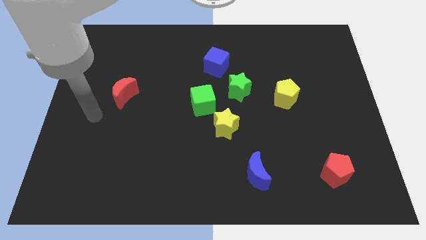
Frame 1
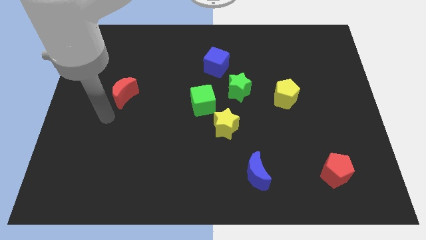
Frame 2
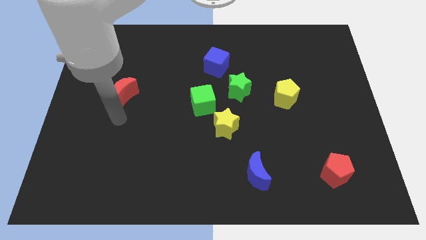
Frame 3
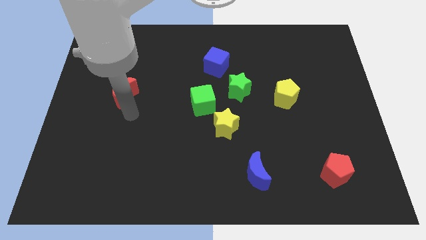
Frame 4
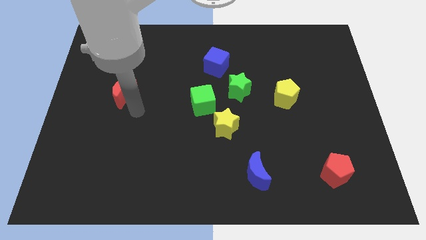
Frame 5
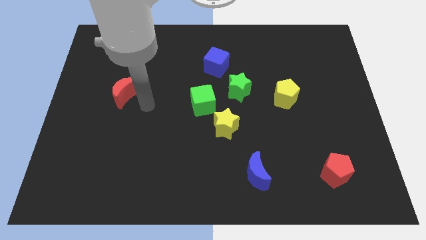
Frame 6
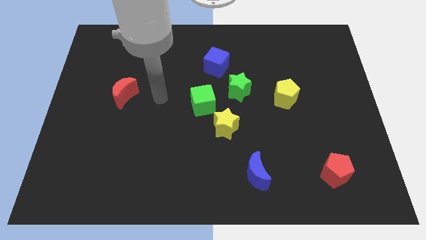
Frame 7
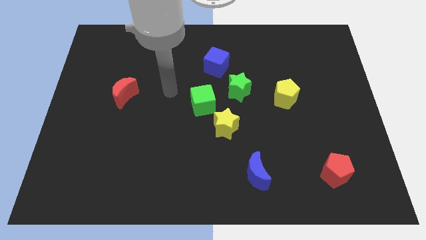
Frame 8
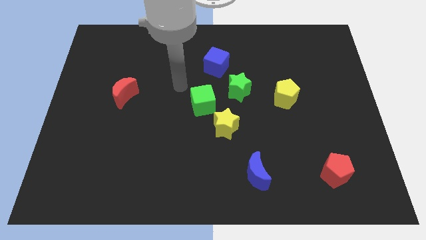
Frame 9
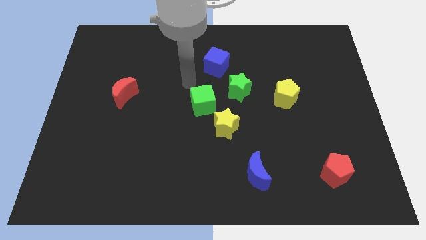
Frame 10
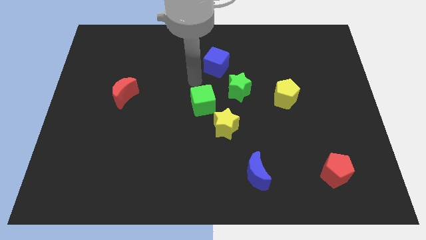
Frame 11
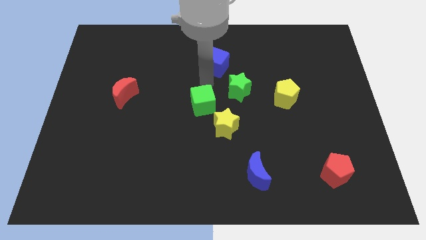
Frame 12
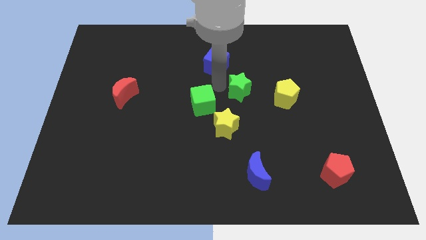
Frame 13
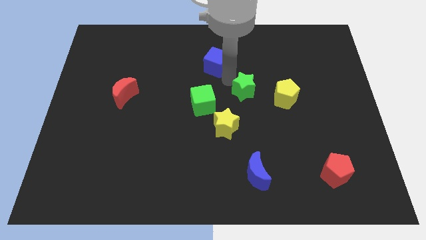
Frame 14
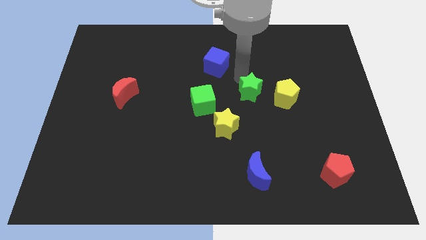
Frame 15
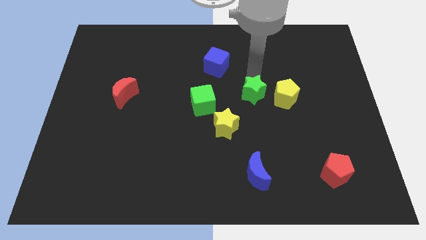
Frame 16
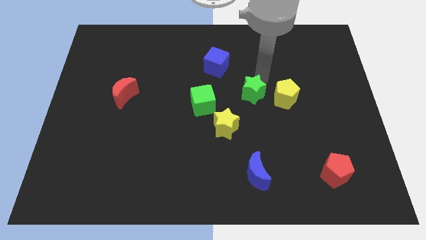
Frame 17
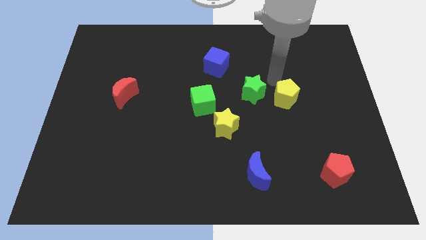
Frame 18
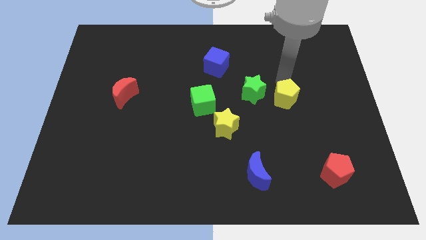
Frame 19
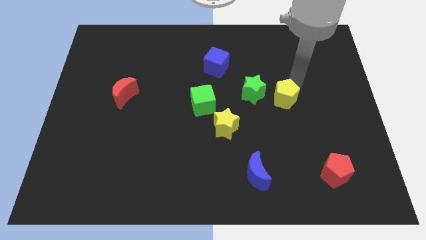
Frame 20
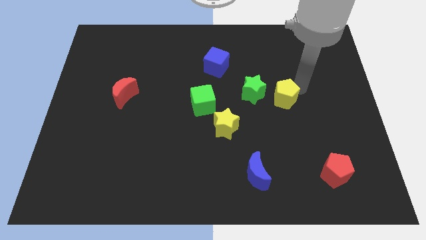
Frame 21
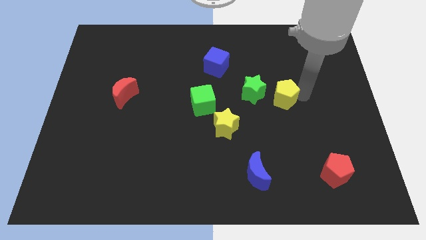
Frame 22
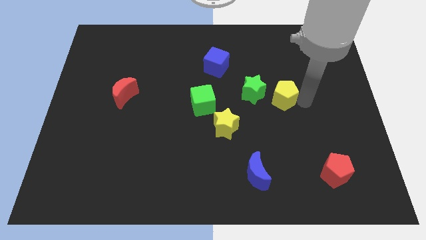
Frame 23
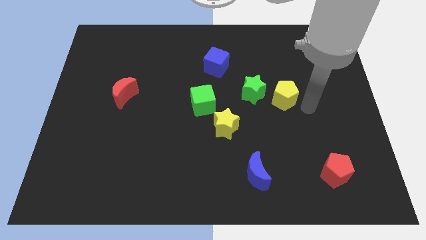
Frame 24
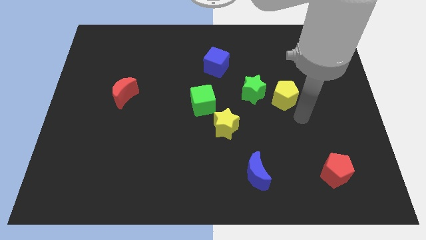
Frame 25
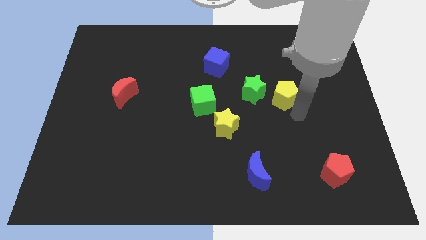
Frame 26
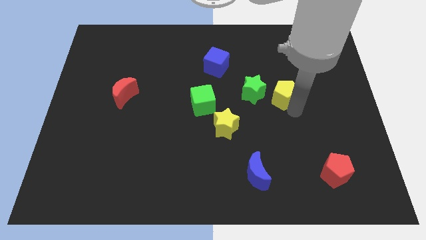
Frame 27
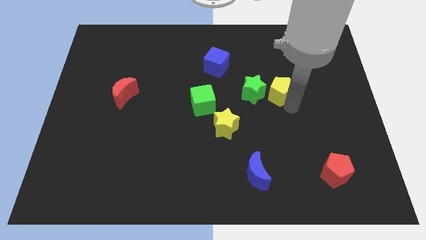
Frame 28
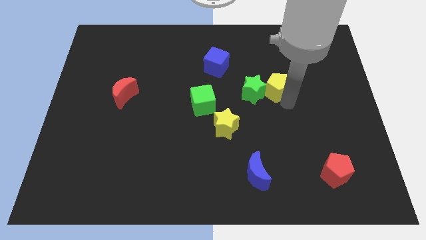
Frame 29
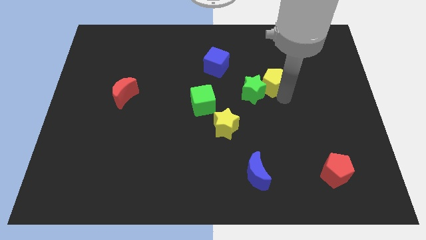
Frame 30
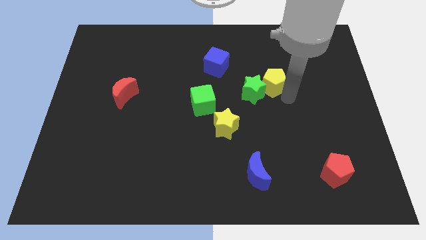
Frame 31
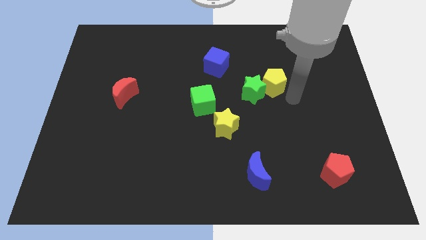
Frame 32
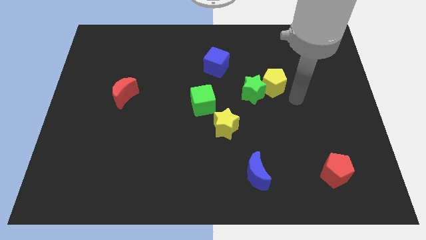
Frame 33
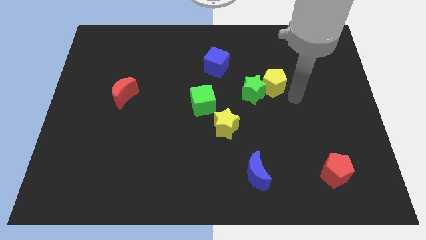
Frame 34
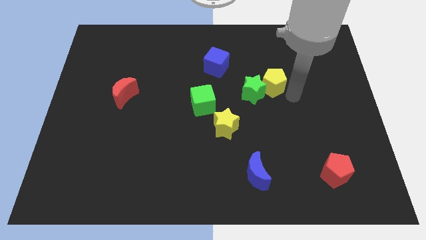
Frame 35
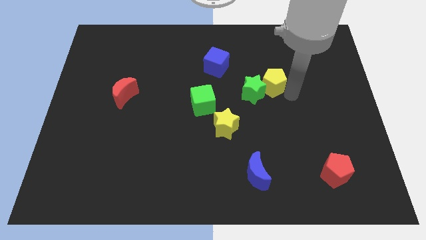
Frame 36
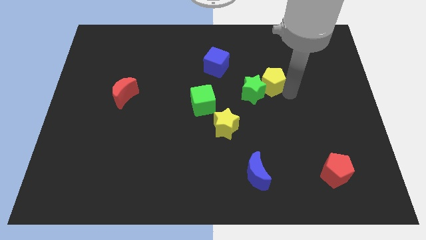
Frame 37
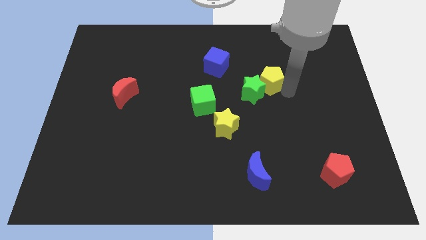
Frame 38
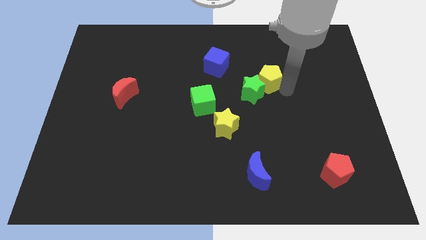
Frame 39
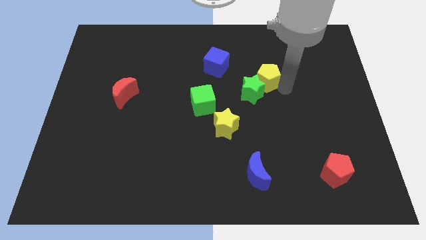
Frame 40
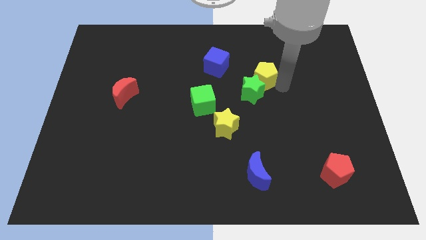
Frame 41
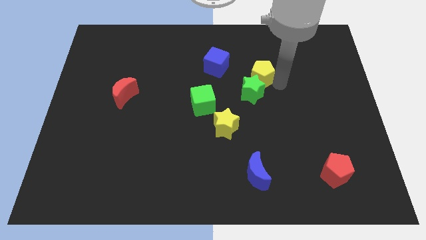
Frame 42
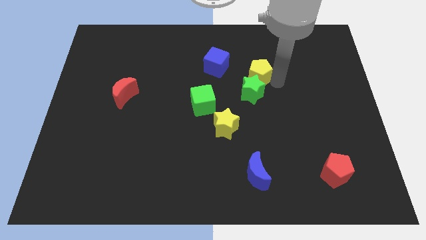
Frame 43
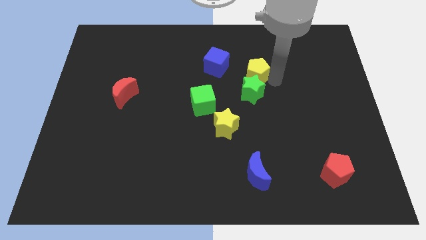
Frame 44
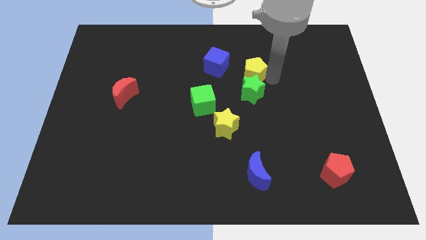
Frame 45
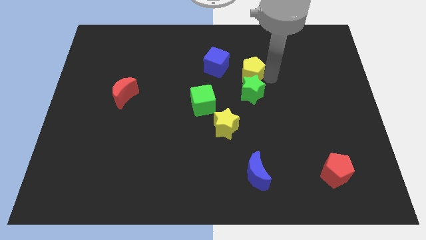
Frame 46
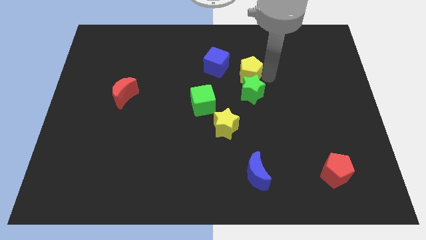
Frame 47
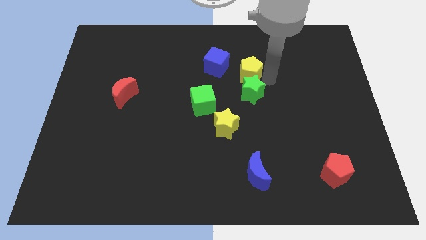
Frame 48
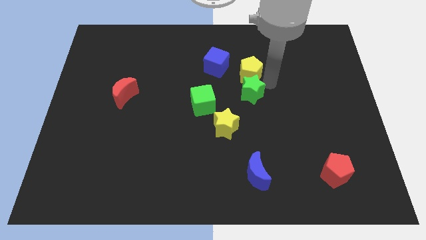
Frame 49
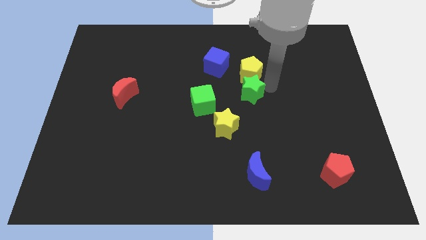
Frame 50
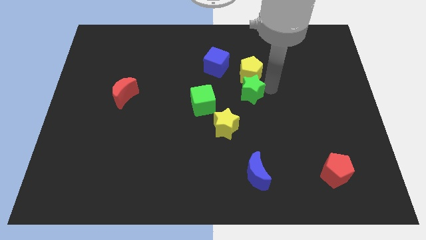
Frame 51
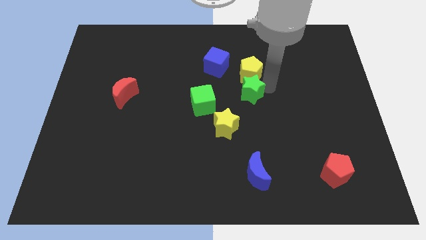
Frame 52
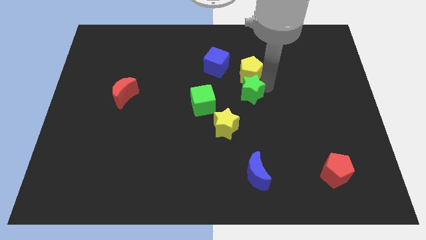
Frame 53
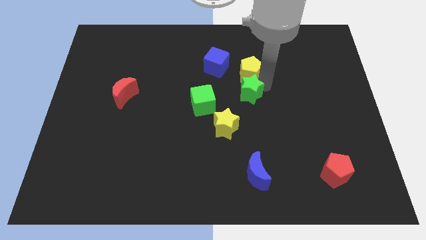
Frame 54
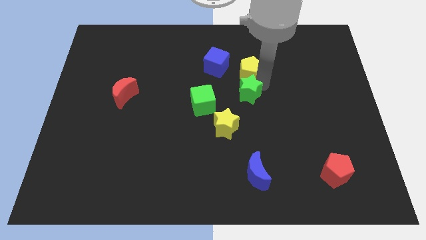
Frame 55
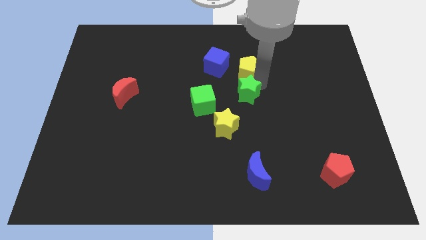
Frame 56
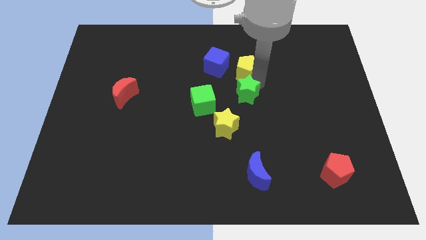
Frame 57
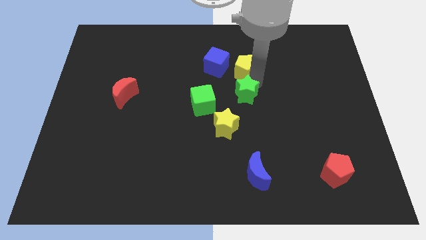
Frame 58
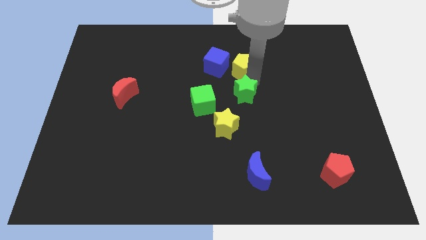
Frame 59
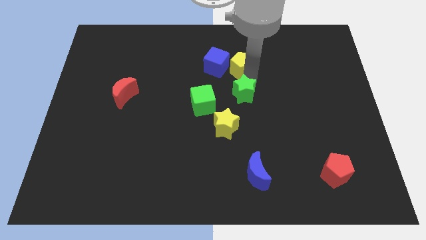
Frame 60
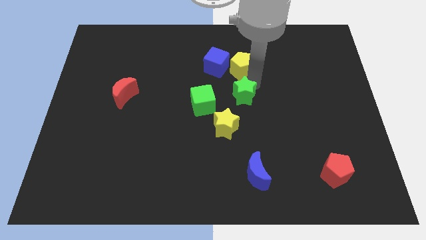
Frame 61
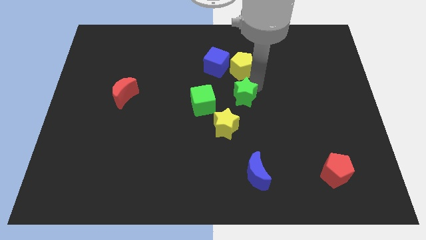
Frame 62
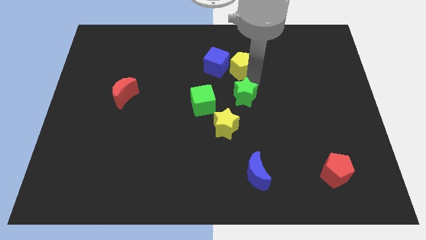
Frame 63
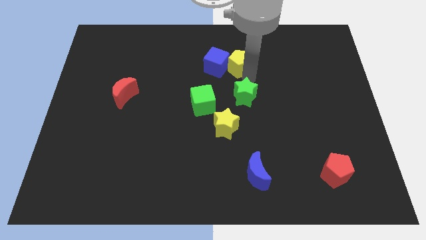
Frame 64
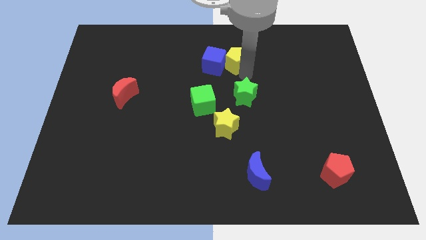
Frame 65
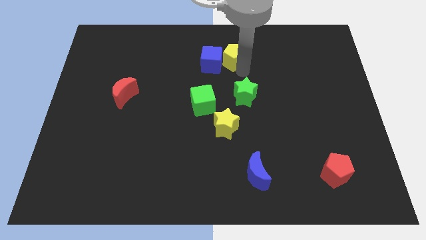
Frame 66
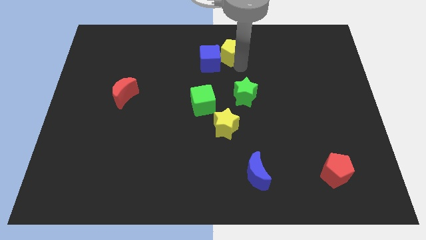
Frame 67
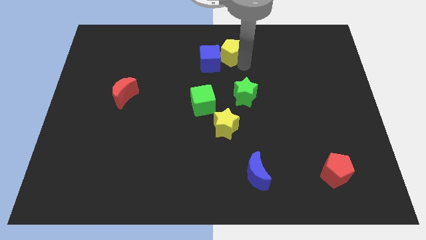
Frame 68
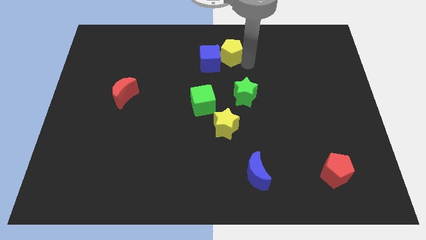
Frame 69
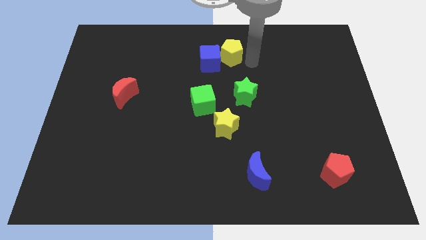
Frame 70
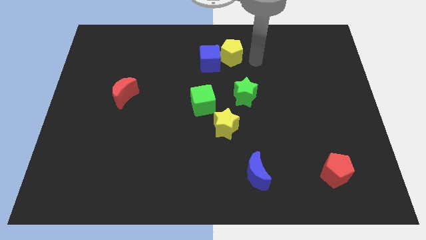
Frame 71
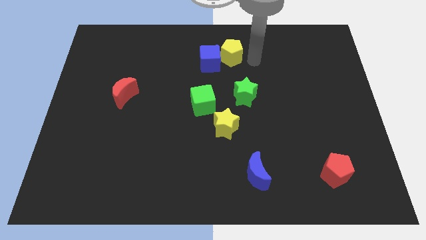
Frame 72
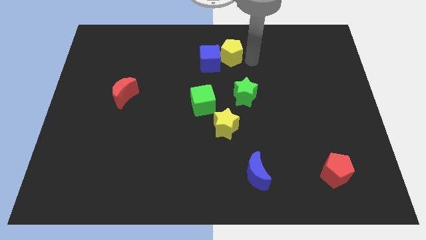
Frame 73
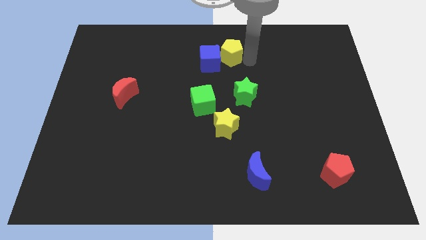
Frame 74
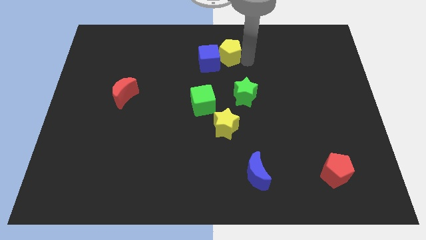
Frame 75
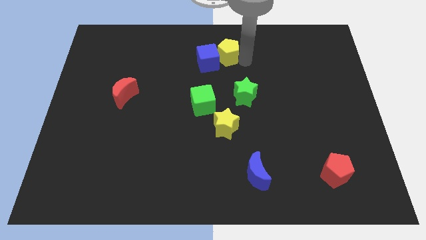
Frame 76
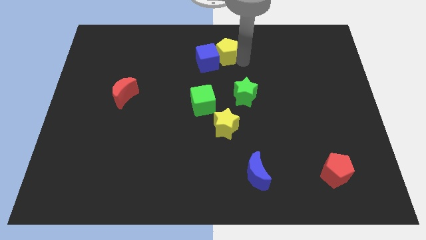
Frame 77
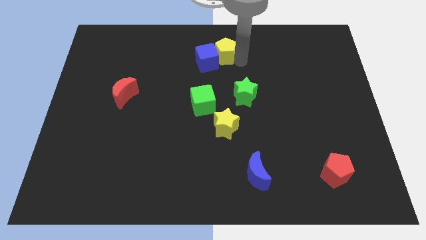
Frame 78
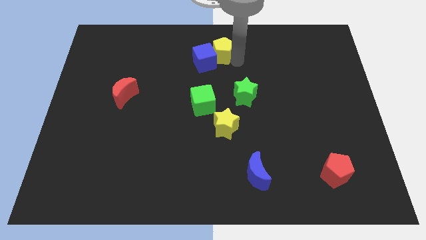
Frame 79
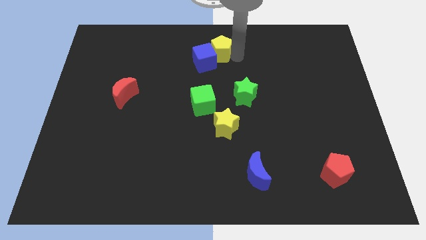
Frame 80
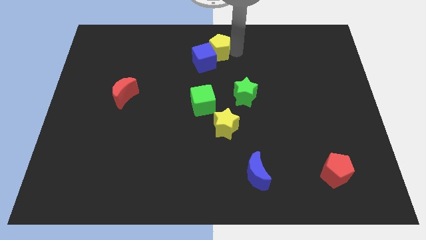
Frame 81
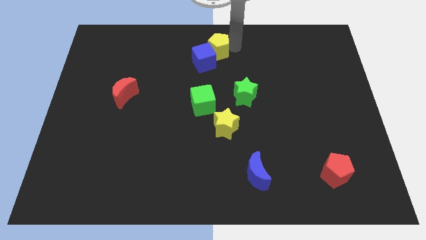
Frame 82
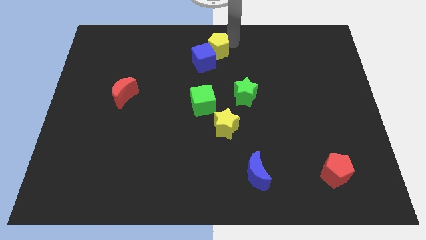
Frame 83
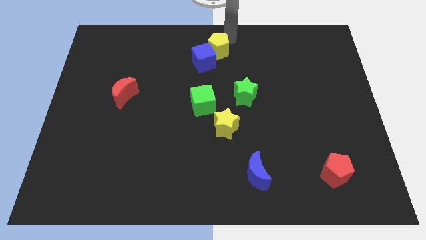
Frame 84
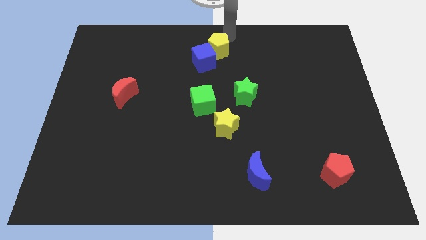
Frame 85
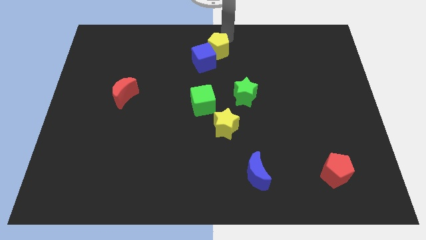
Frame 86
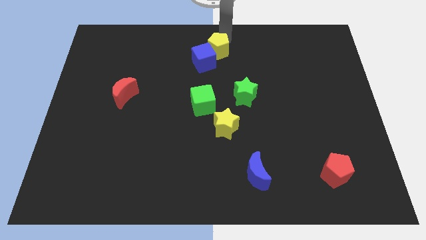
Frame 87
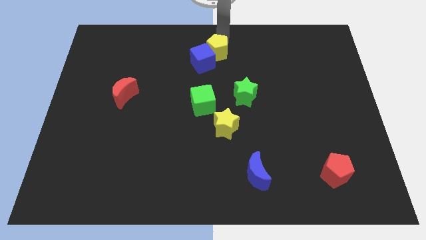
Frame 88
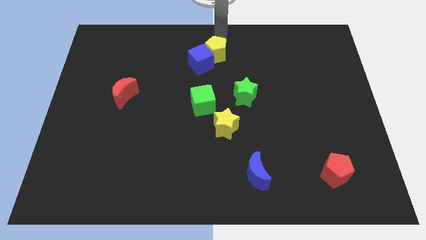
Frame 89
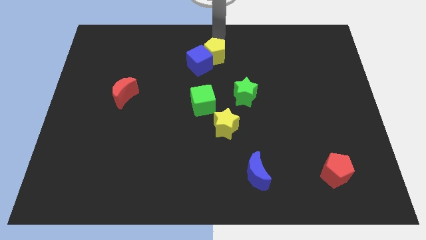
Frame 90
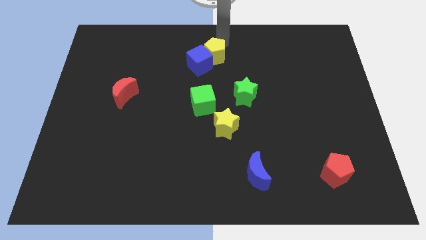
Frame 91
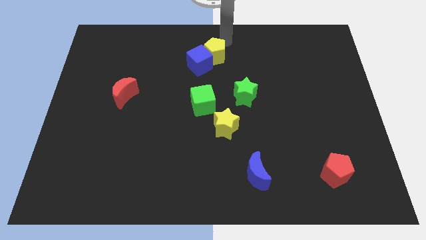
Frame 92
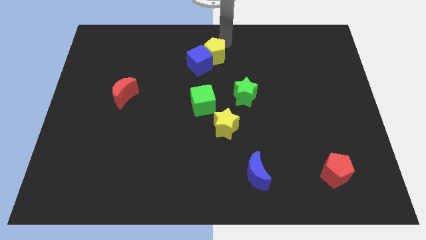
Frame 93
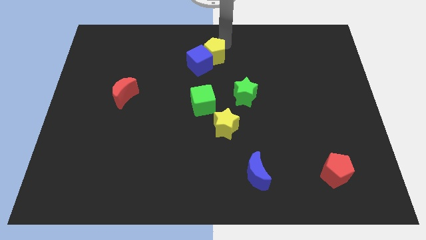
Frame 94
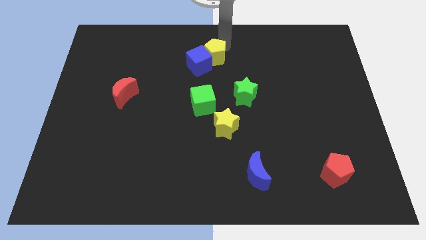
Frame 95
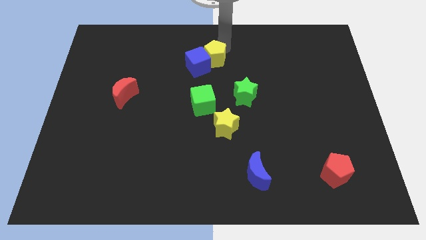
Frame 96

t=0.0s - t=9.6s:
move the yellow pentagon above the green cube
